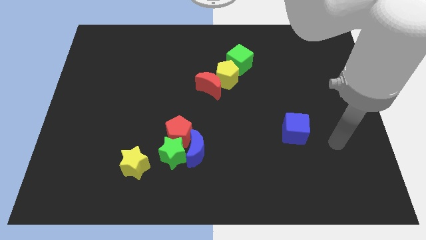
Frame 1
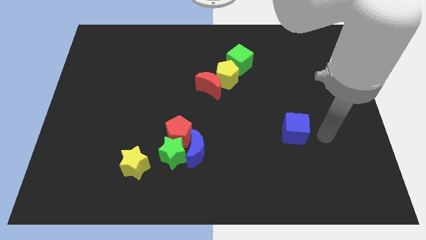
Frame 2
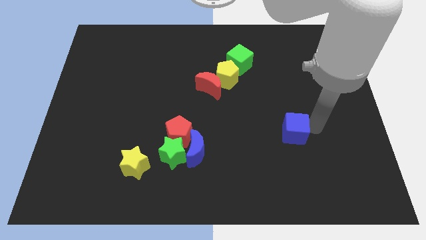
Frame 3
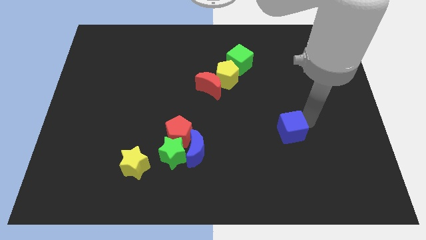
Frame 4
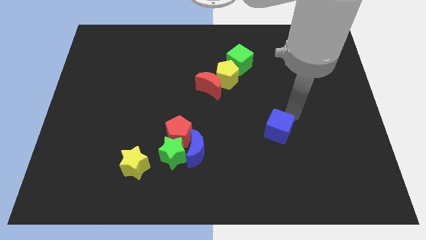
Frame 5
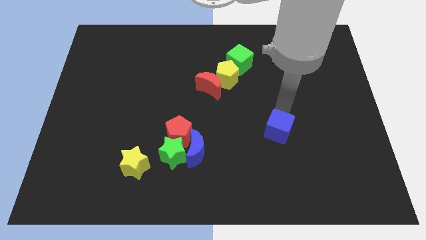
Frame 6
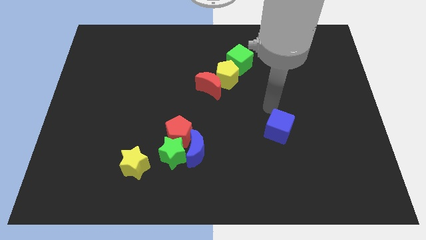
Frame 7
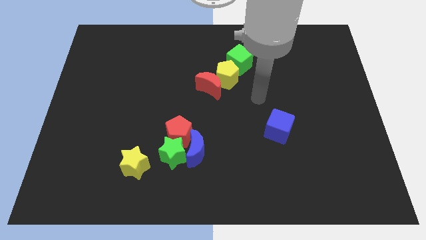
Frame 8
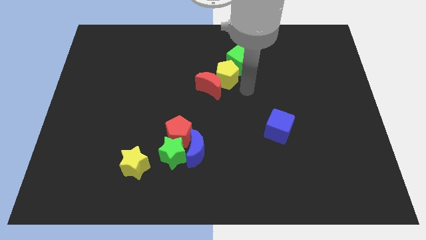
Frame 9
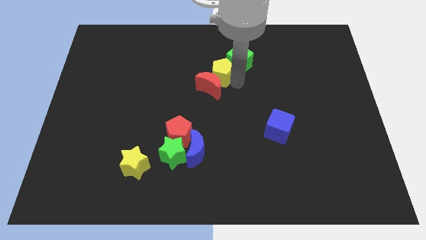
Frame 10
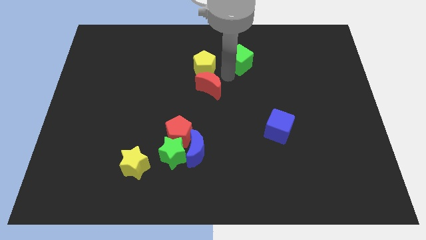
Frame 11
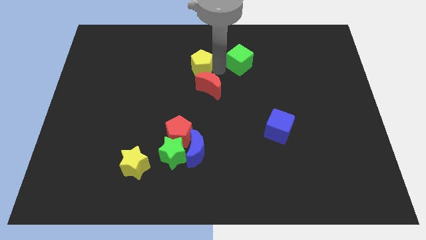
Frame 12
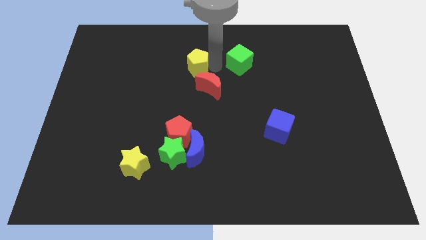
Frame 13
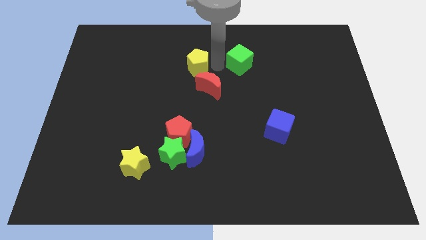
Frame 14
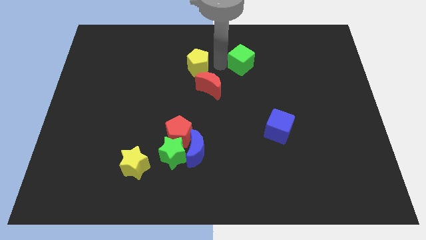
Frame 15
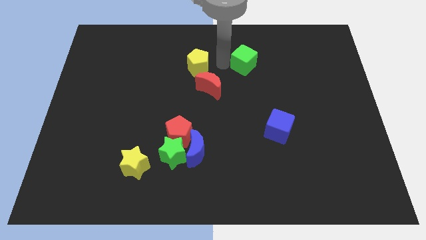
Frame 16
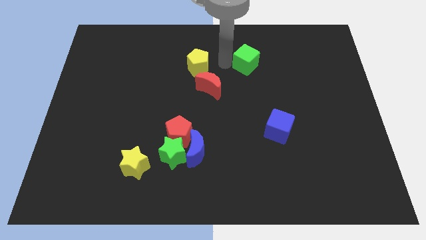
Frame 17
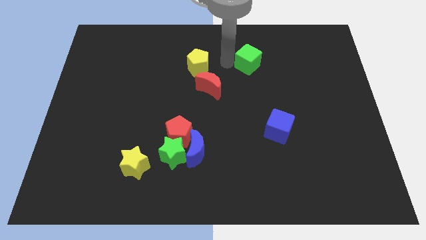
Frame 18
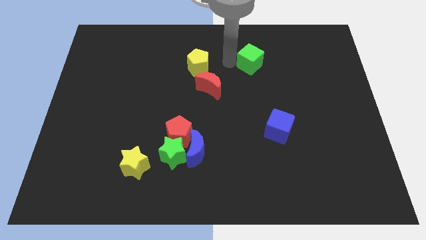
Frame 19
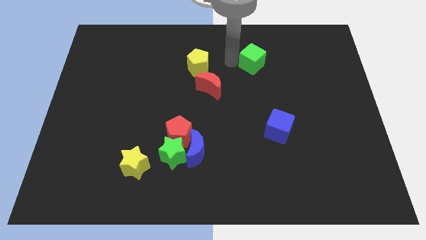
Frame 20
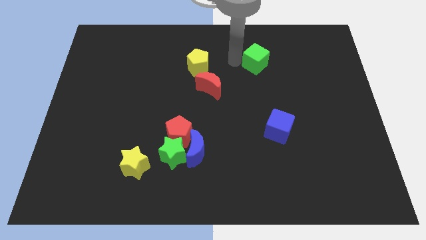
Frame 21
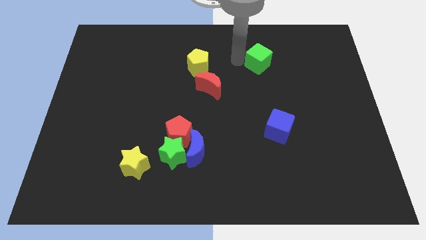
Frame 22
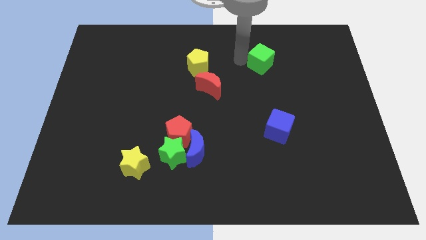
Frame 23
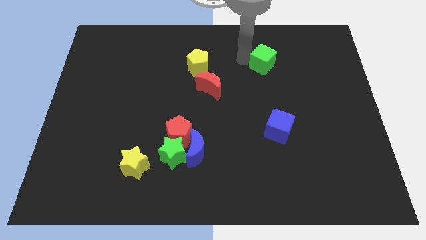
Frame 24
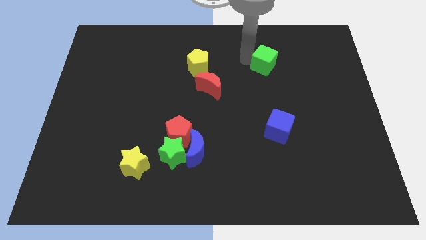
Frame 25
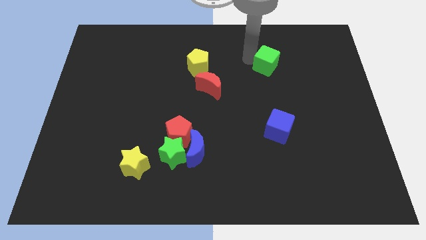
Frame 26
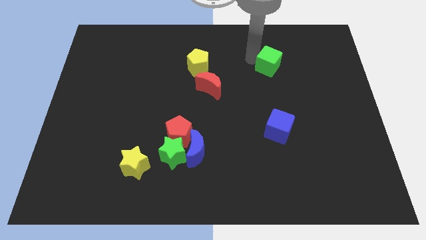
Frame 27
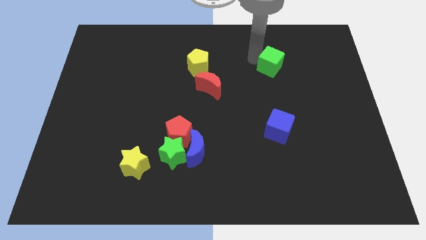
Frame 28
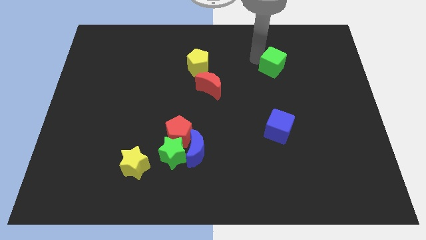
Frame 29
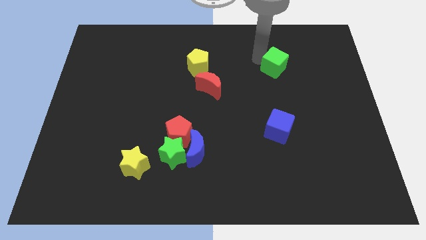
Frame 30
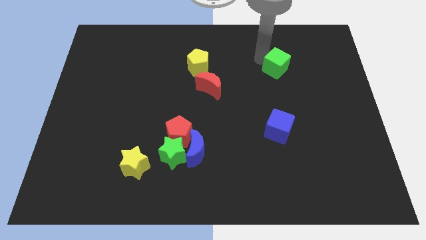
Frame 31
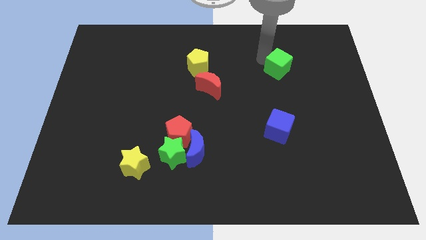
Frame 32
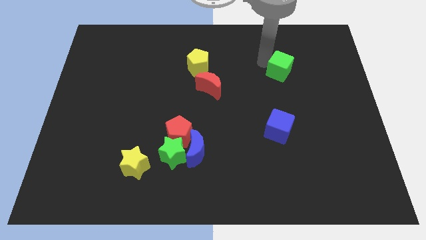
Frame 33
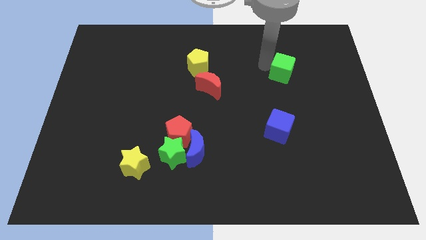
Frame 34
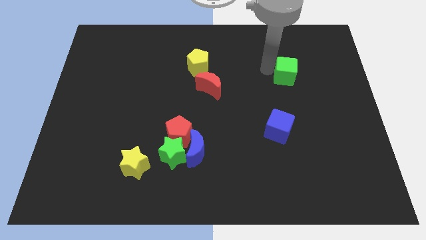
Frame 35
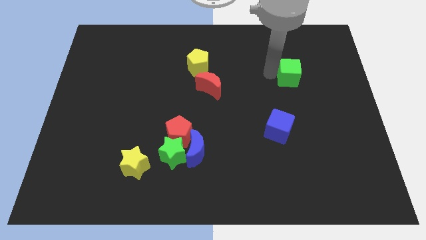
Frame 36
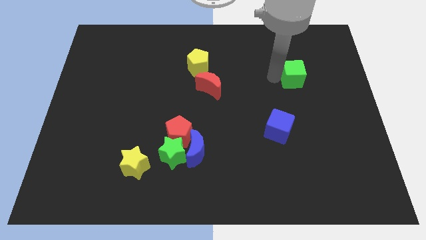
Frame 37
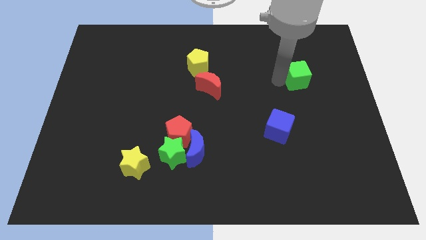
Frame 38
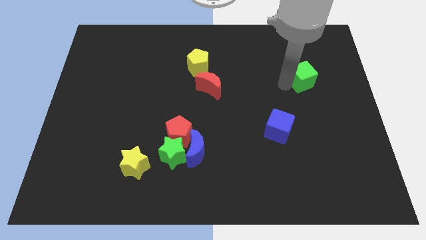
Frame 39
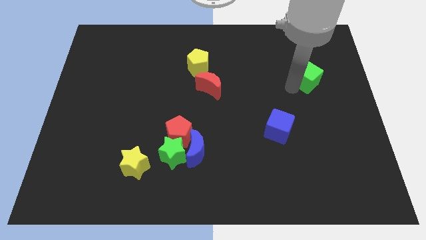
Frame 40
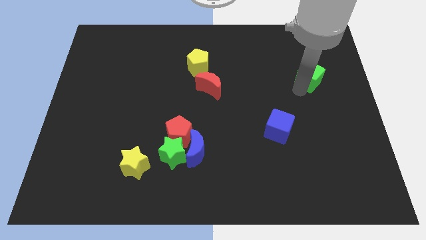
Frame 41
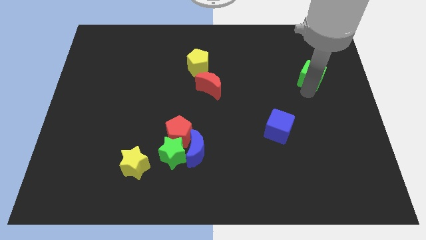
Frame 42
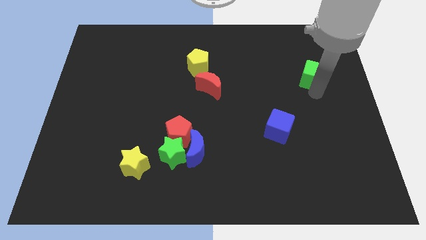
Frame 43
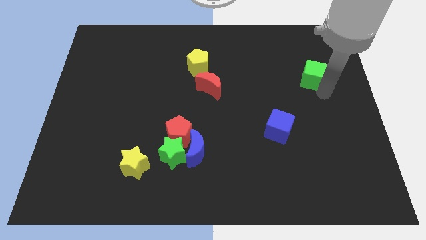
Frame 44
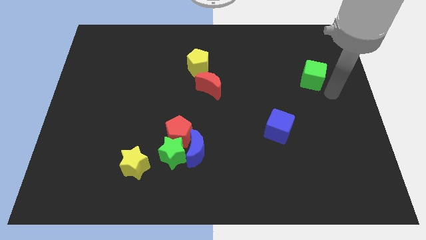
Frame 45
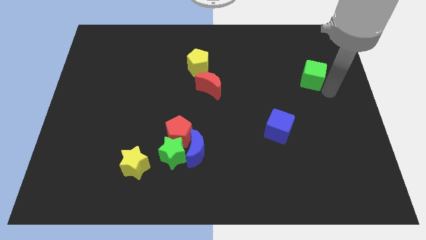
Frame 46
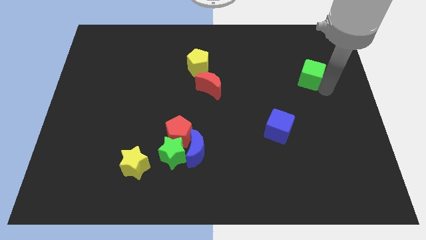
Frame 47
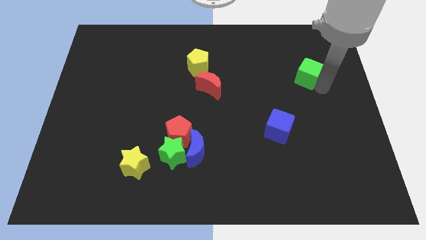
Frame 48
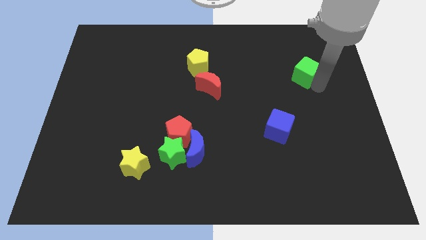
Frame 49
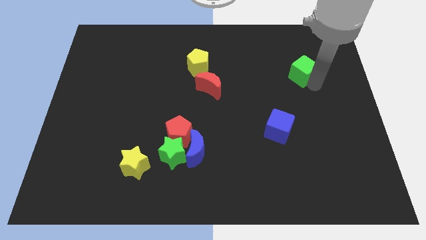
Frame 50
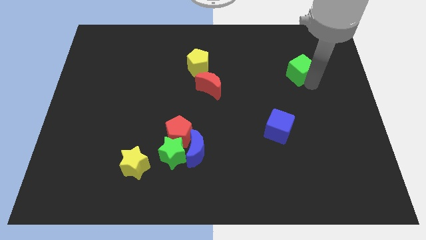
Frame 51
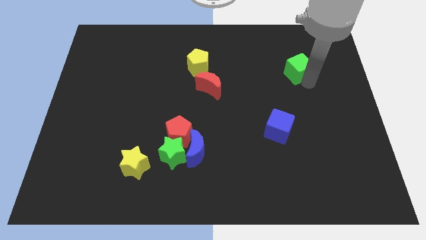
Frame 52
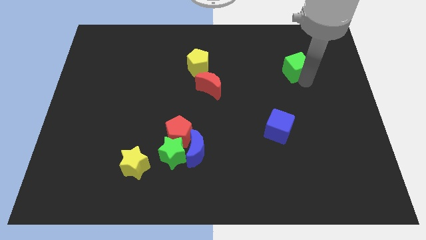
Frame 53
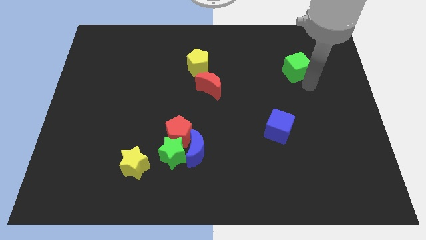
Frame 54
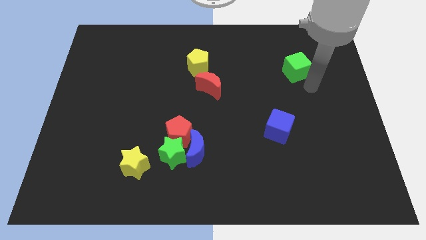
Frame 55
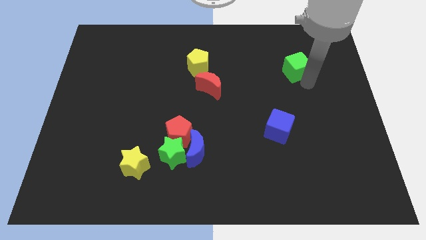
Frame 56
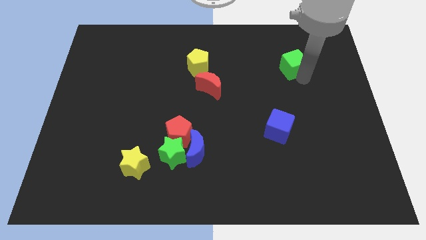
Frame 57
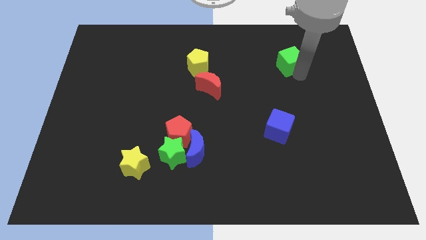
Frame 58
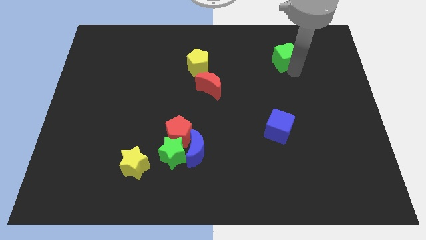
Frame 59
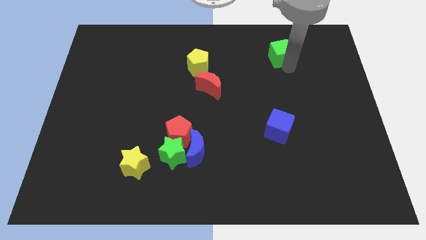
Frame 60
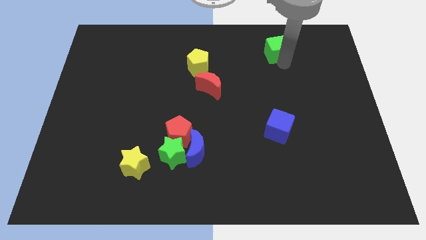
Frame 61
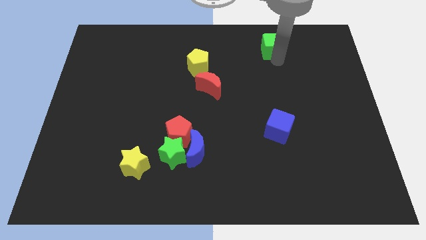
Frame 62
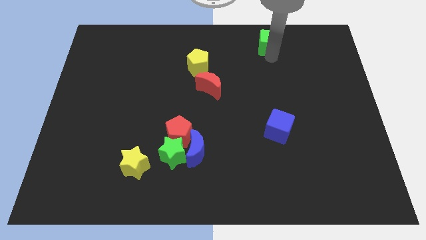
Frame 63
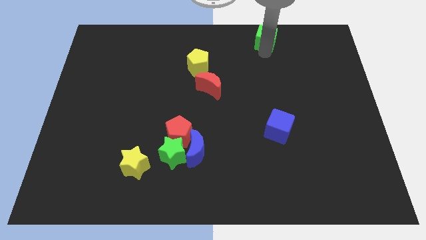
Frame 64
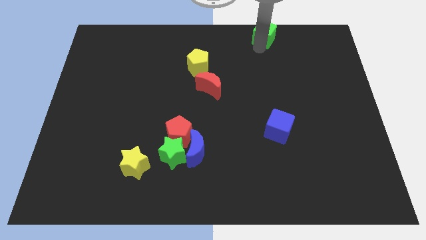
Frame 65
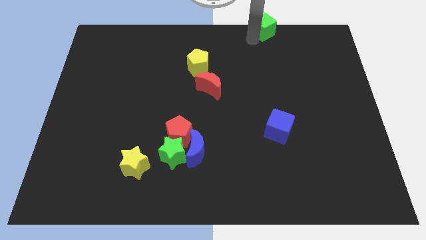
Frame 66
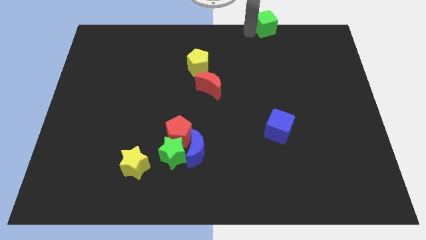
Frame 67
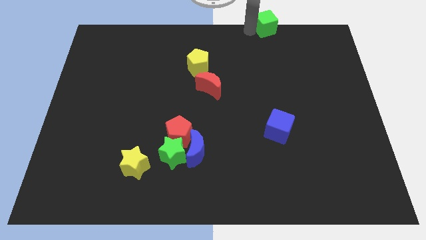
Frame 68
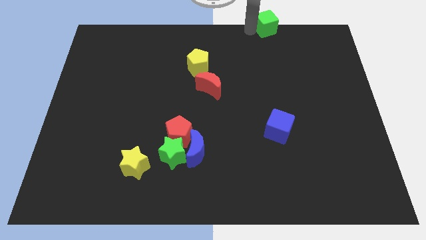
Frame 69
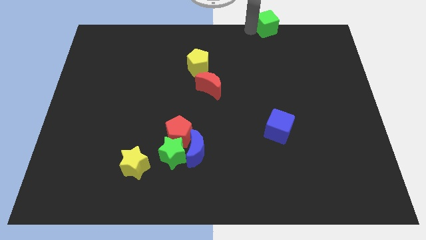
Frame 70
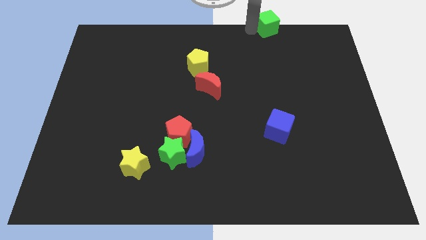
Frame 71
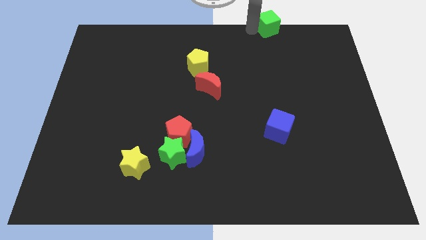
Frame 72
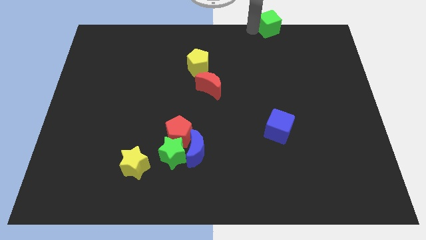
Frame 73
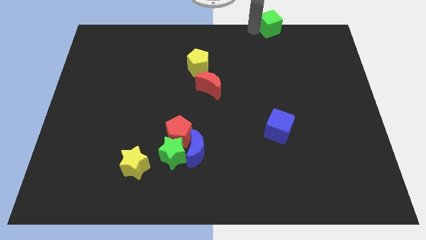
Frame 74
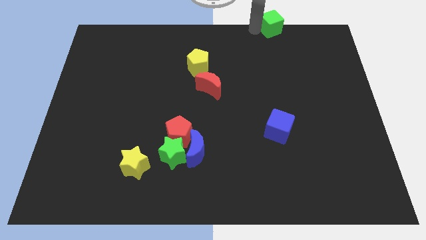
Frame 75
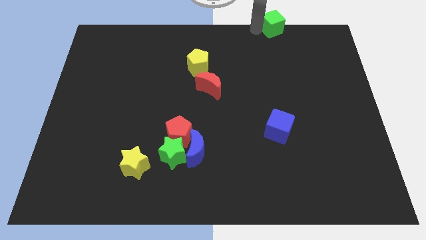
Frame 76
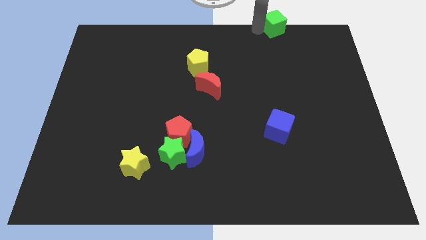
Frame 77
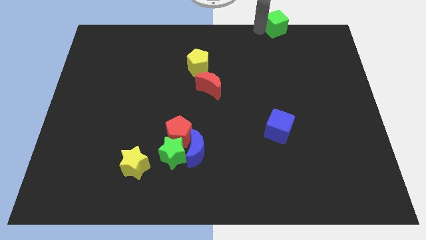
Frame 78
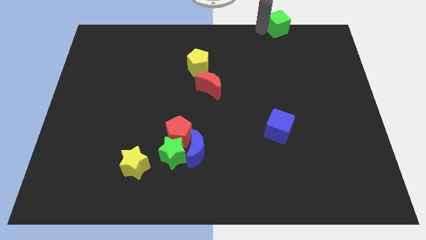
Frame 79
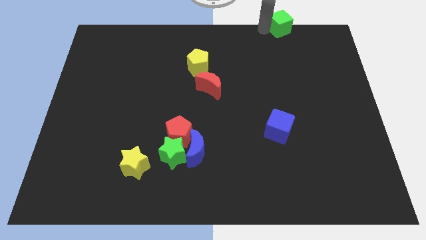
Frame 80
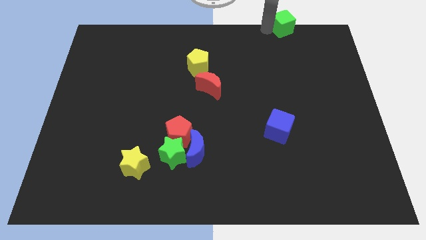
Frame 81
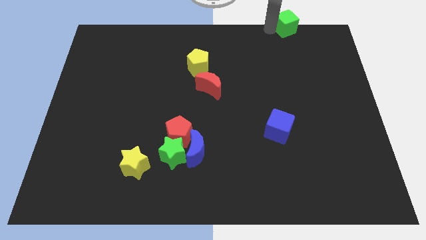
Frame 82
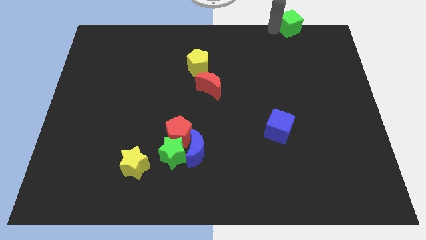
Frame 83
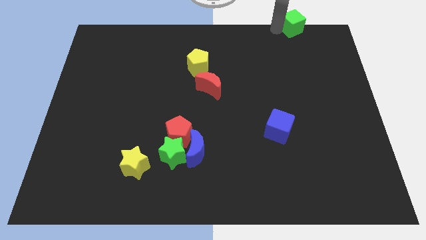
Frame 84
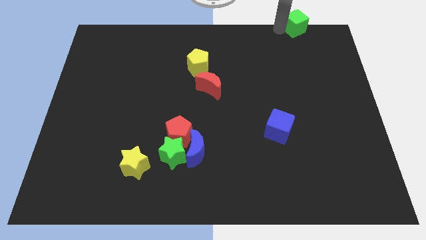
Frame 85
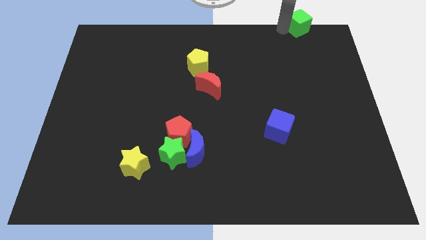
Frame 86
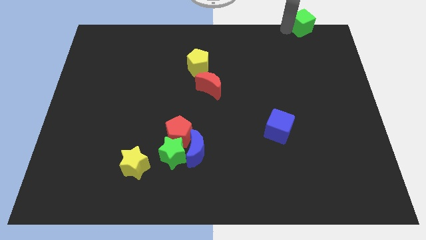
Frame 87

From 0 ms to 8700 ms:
move the green cube to the top right corner
